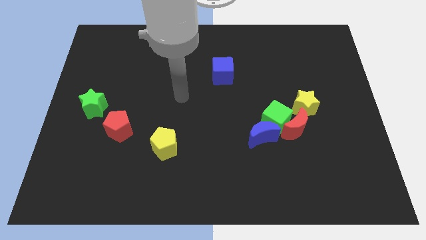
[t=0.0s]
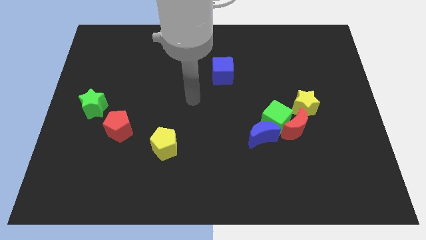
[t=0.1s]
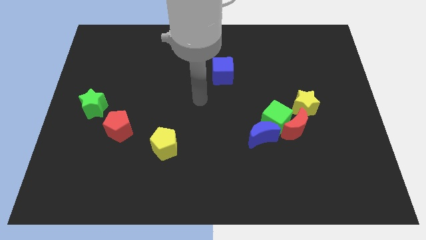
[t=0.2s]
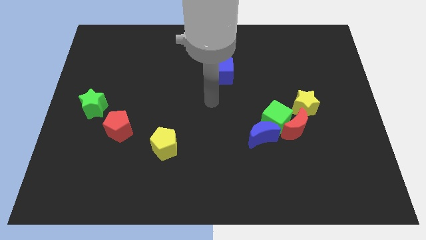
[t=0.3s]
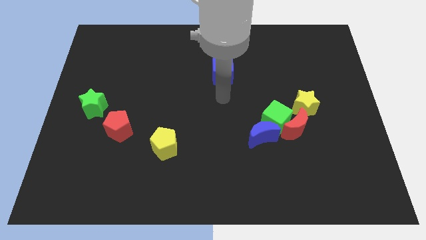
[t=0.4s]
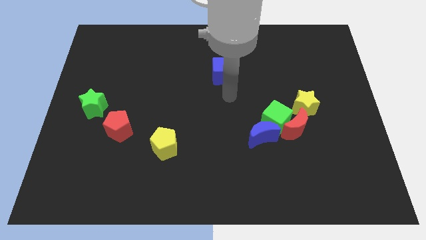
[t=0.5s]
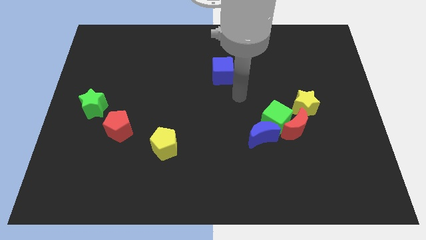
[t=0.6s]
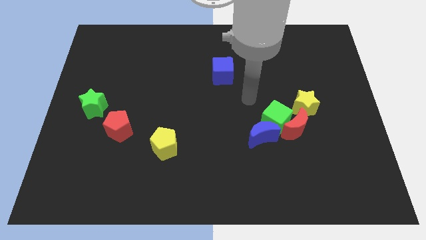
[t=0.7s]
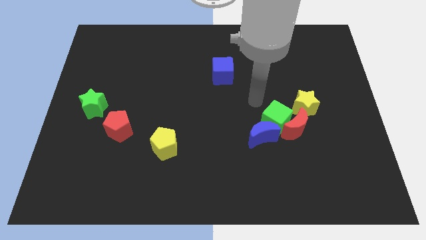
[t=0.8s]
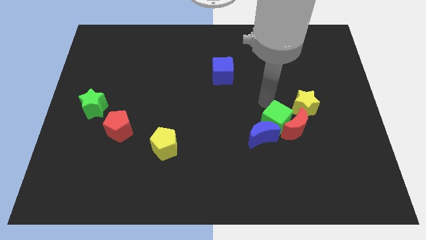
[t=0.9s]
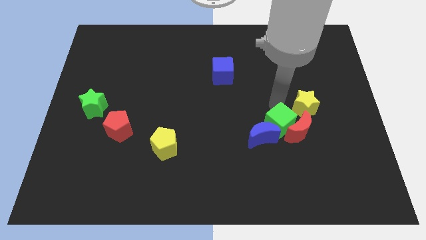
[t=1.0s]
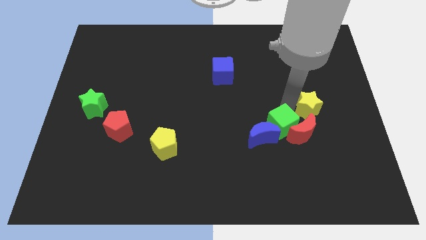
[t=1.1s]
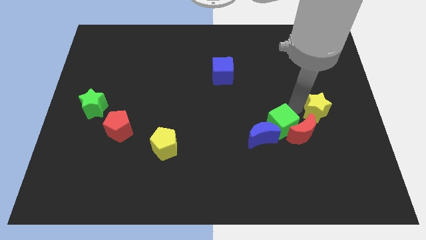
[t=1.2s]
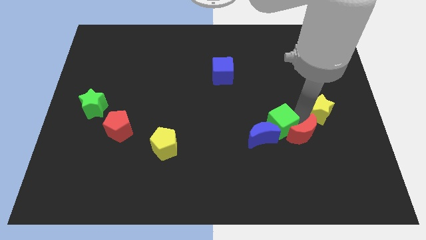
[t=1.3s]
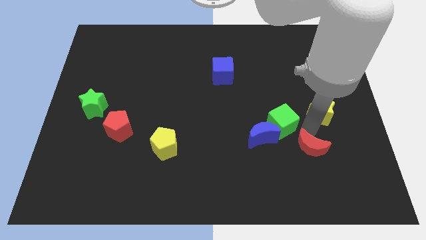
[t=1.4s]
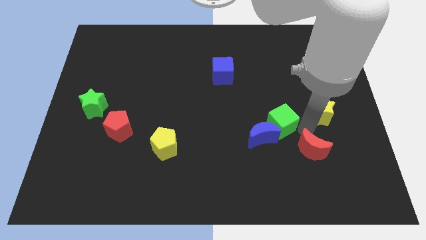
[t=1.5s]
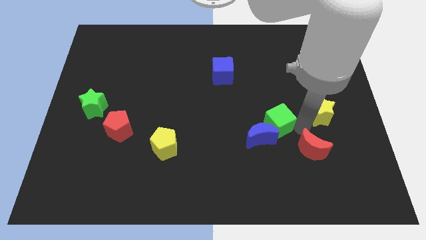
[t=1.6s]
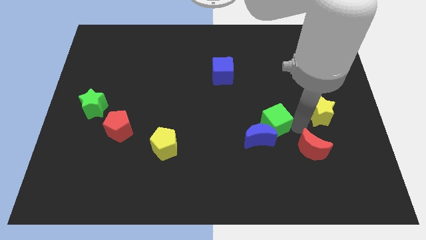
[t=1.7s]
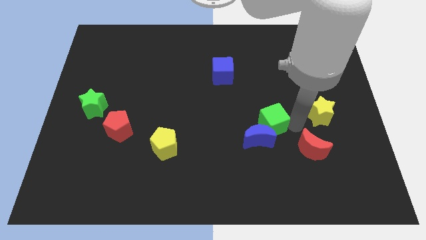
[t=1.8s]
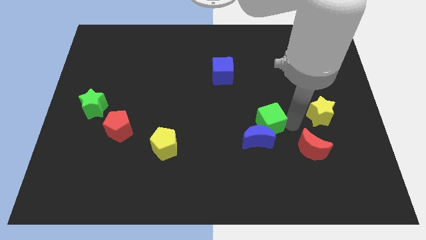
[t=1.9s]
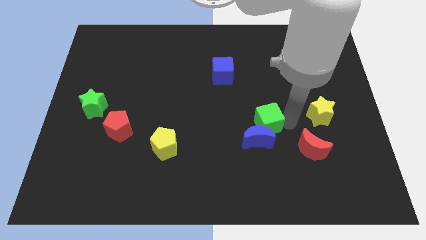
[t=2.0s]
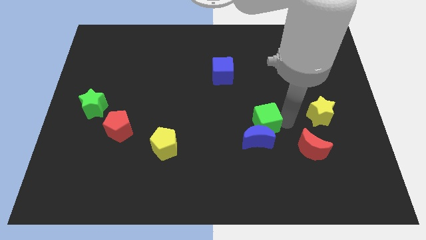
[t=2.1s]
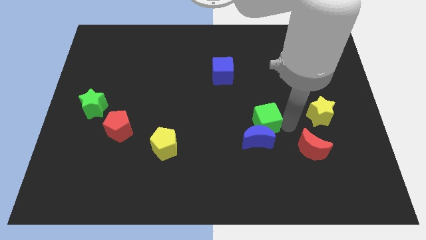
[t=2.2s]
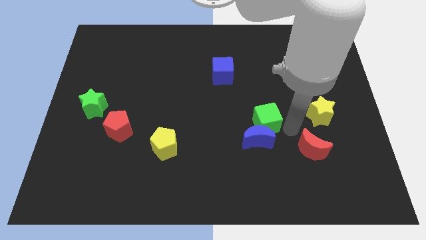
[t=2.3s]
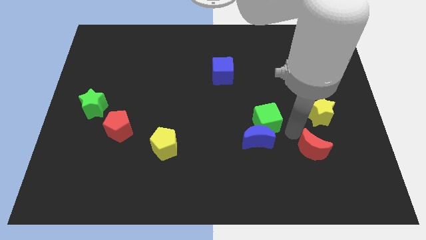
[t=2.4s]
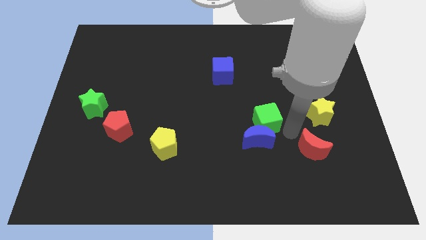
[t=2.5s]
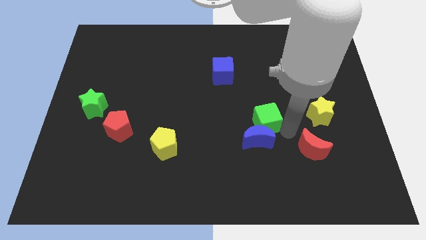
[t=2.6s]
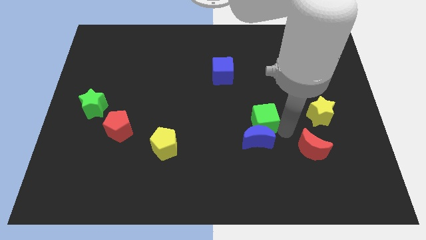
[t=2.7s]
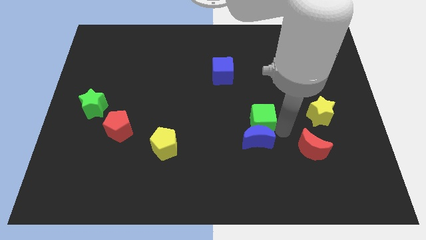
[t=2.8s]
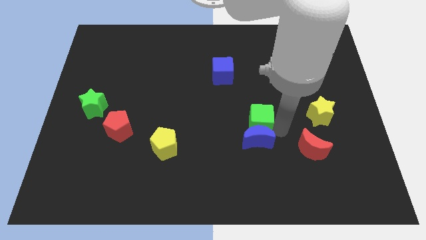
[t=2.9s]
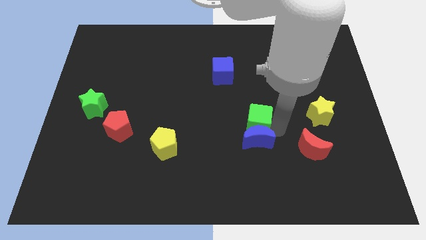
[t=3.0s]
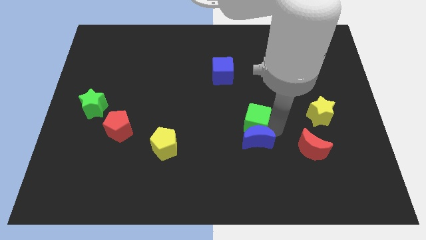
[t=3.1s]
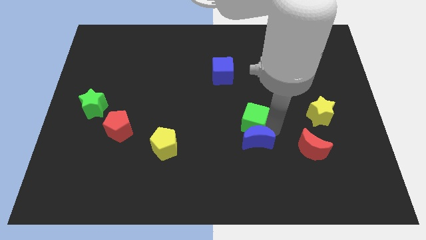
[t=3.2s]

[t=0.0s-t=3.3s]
separate the green cube from the red moon, blue moon, and yellow star

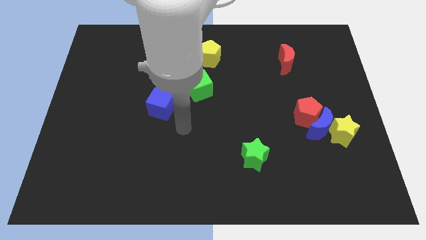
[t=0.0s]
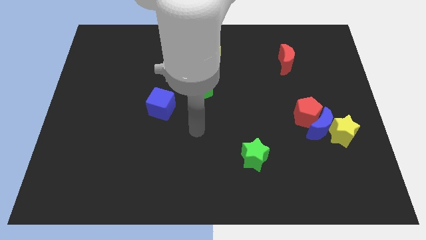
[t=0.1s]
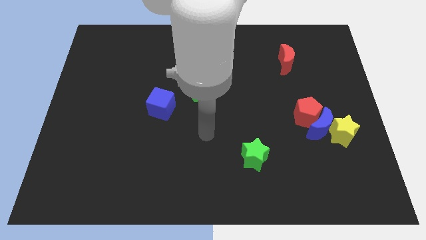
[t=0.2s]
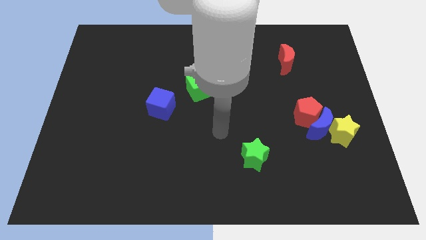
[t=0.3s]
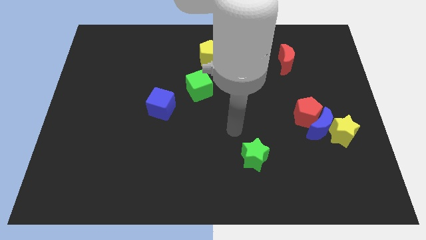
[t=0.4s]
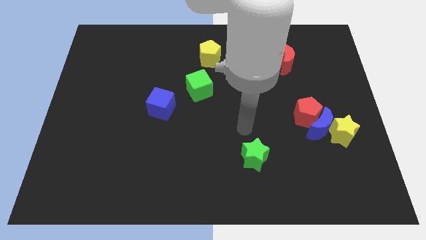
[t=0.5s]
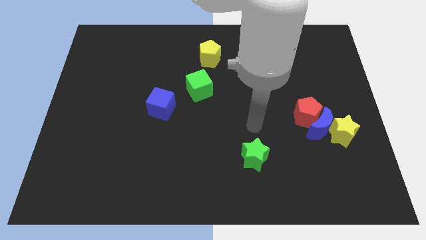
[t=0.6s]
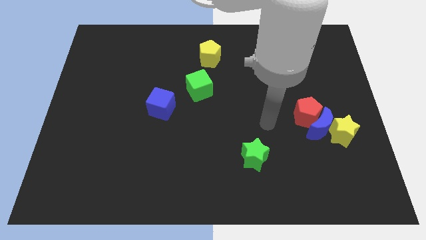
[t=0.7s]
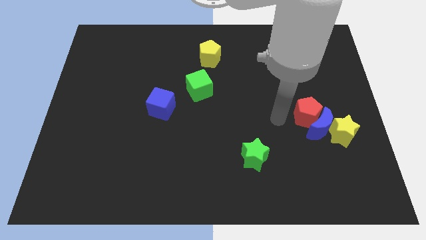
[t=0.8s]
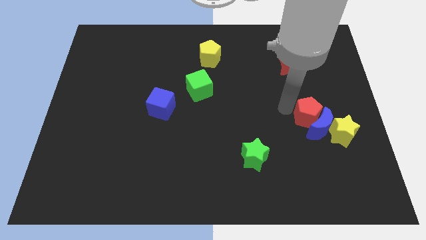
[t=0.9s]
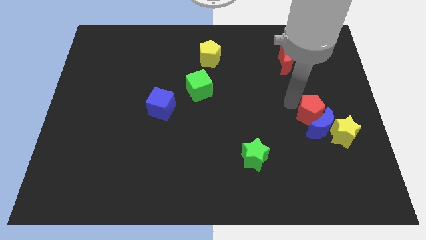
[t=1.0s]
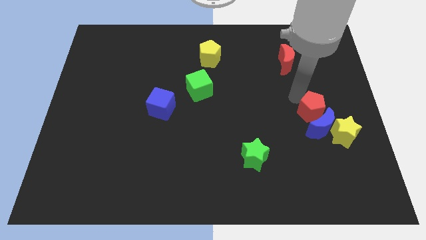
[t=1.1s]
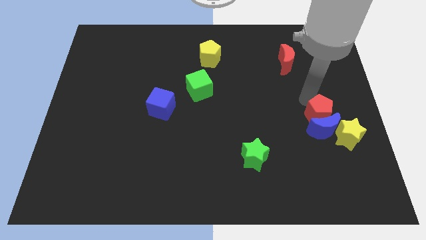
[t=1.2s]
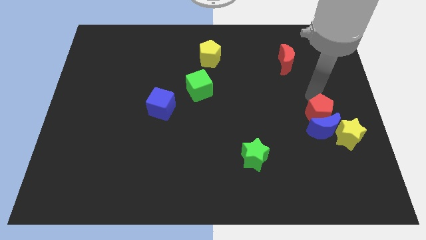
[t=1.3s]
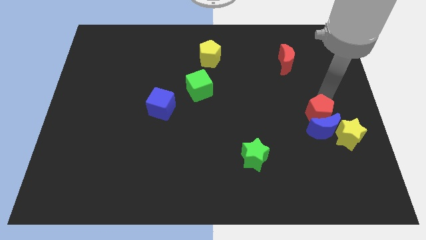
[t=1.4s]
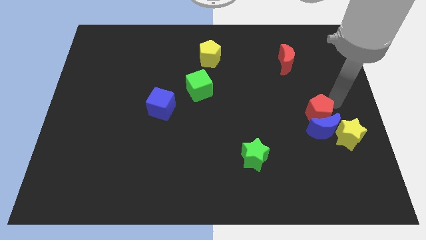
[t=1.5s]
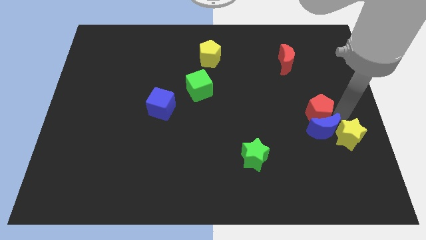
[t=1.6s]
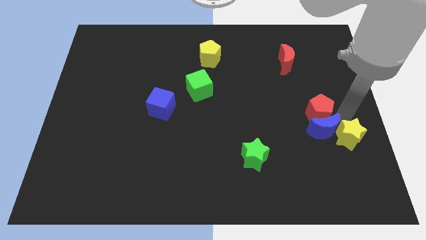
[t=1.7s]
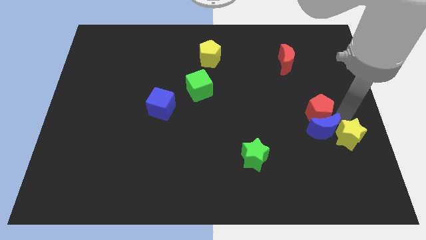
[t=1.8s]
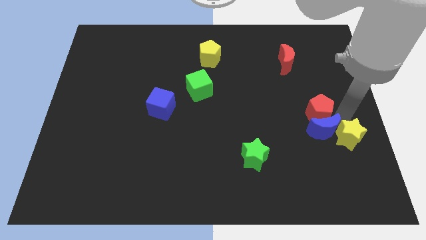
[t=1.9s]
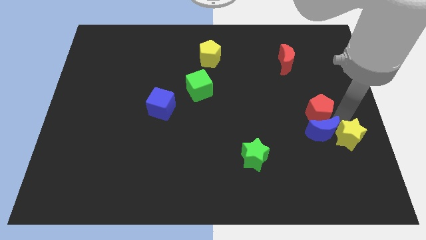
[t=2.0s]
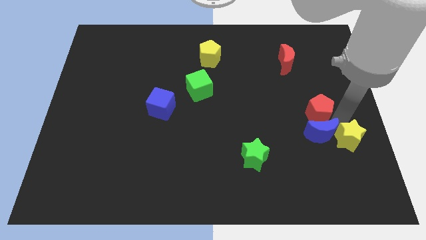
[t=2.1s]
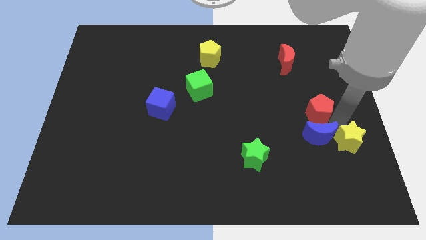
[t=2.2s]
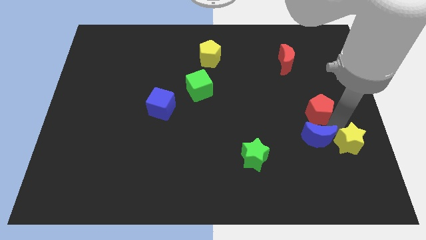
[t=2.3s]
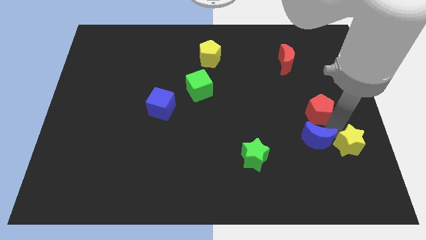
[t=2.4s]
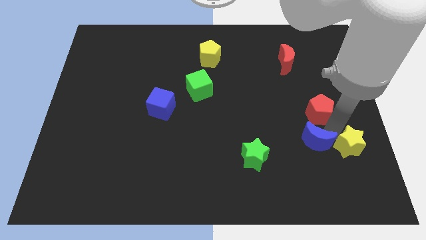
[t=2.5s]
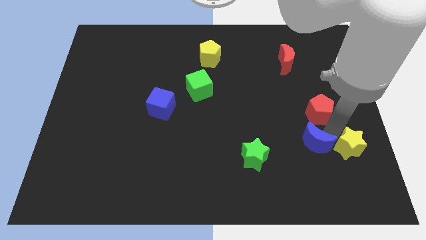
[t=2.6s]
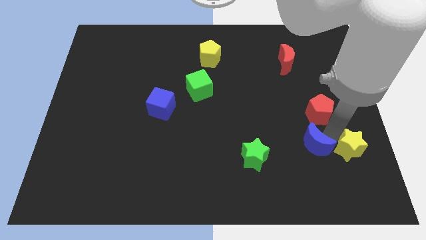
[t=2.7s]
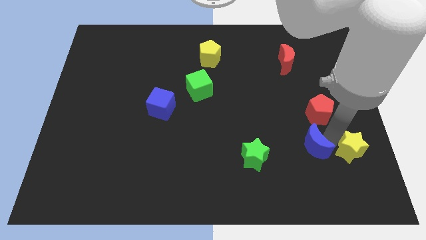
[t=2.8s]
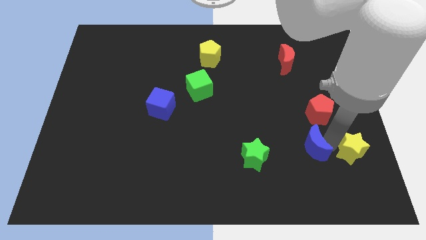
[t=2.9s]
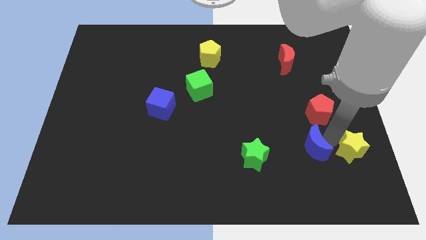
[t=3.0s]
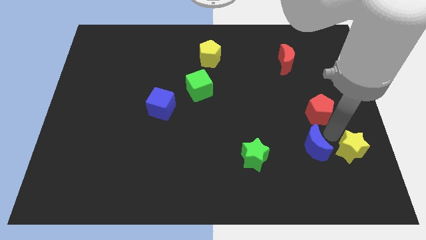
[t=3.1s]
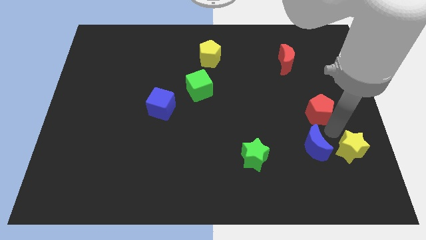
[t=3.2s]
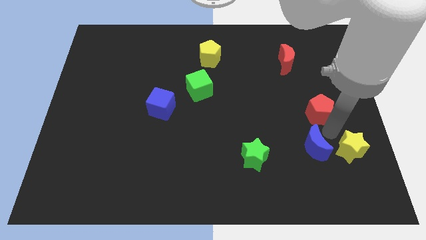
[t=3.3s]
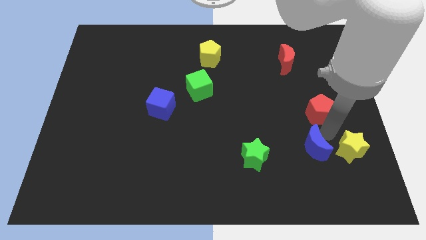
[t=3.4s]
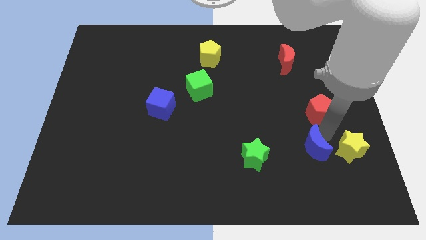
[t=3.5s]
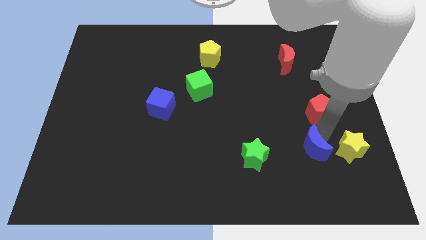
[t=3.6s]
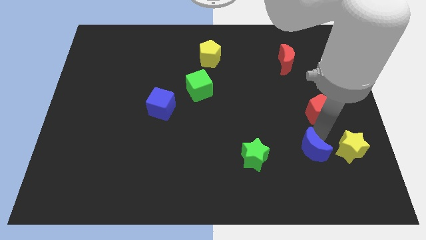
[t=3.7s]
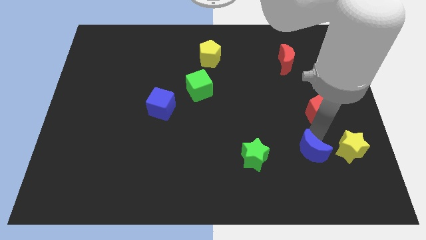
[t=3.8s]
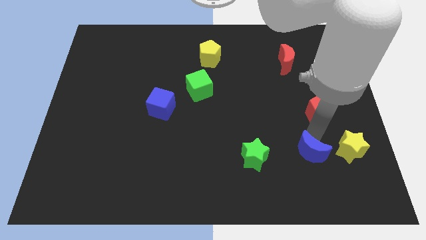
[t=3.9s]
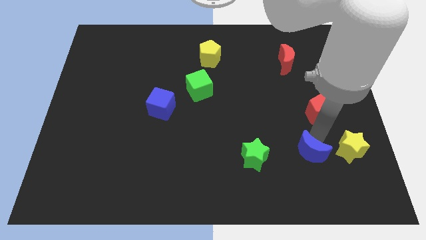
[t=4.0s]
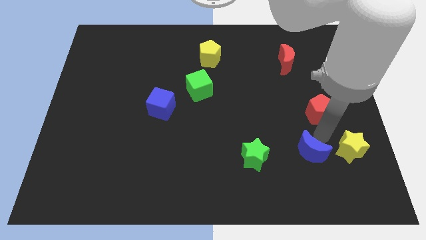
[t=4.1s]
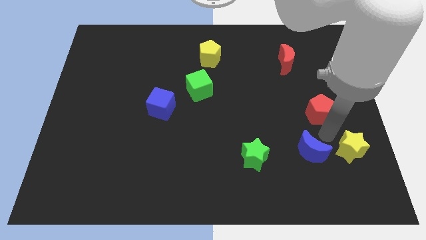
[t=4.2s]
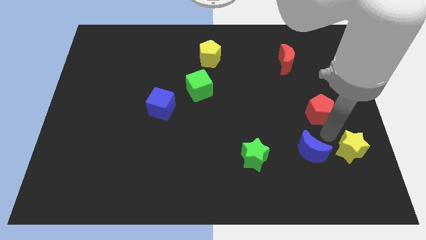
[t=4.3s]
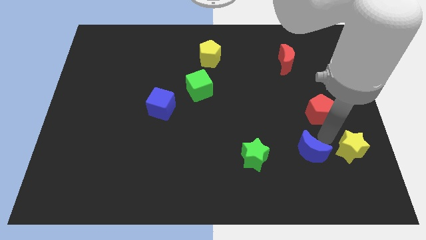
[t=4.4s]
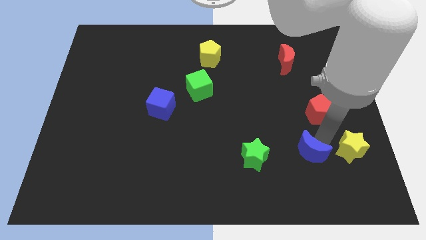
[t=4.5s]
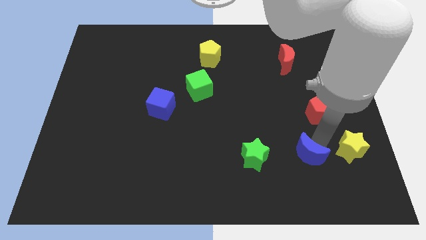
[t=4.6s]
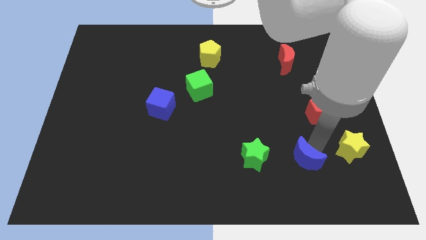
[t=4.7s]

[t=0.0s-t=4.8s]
pull the blue moon apart from the red pentagon and yellow star

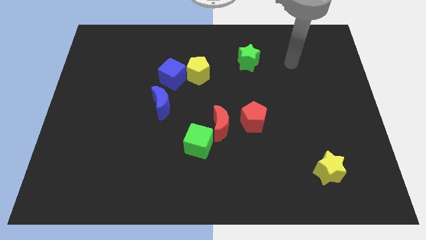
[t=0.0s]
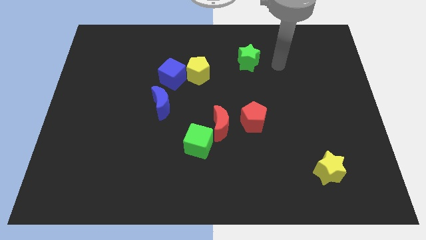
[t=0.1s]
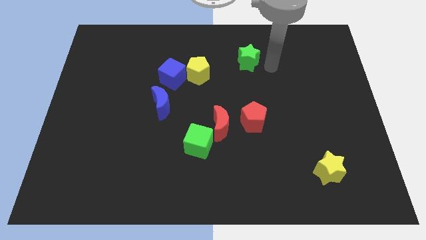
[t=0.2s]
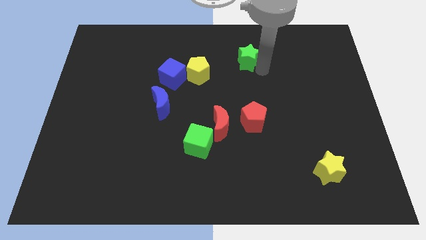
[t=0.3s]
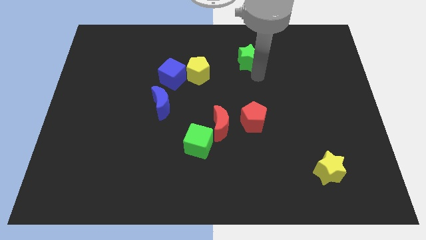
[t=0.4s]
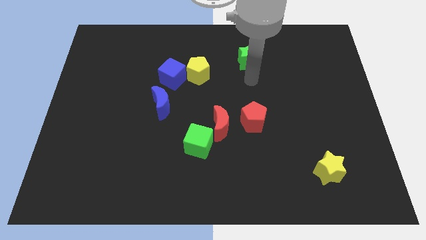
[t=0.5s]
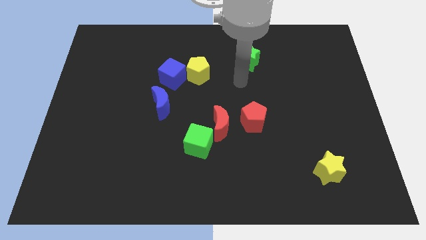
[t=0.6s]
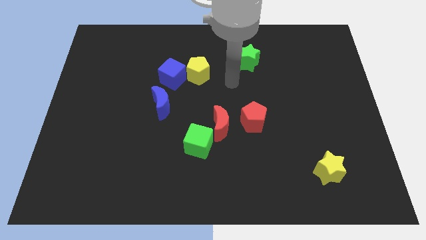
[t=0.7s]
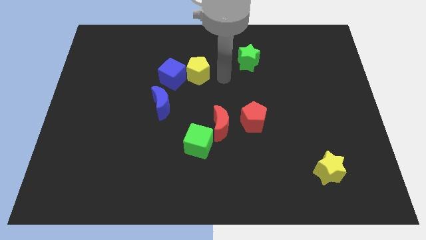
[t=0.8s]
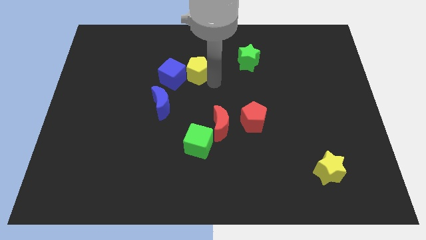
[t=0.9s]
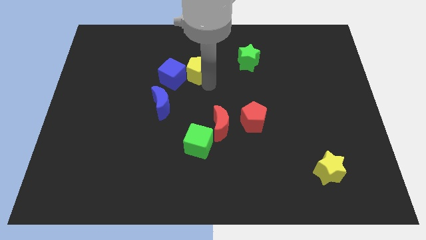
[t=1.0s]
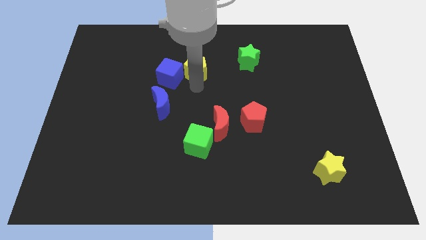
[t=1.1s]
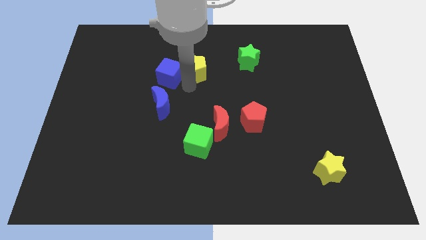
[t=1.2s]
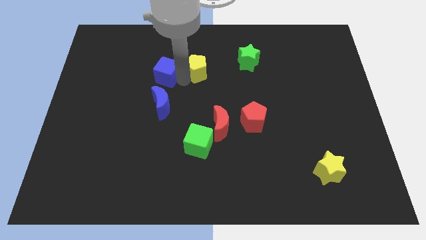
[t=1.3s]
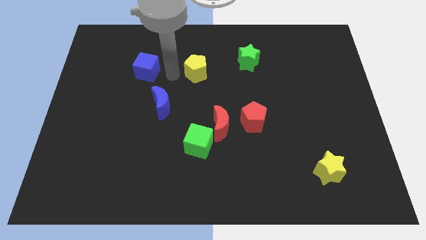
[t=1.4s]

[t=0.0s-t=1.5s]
pull the yellow pentagon apart from the blue cube
